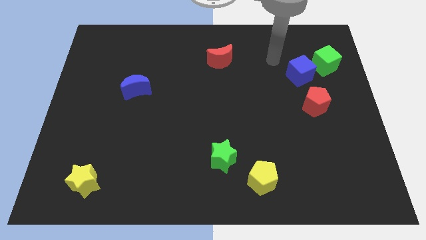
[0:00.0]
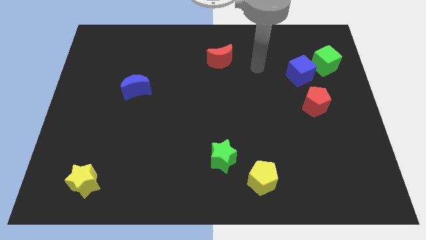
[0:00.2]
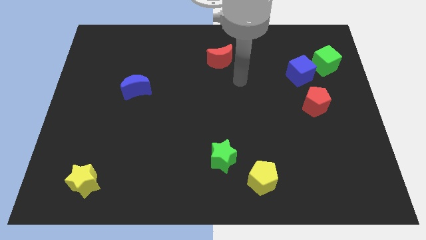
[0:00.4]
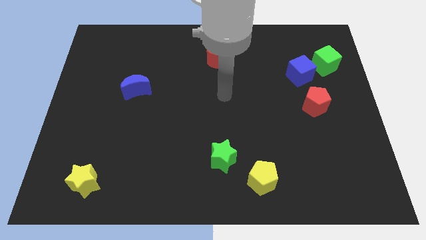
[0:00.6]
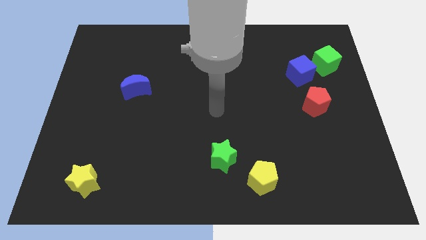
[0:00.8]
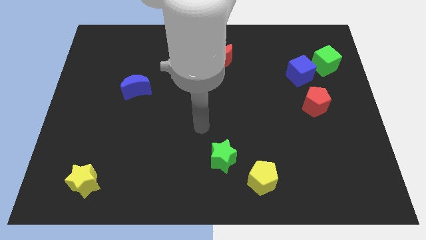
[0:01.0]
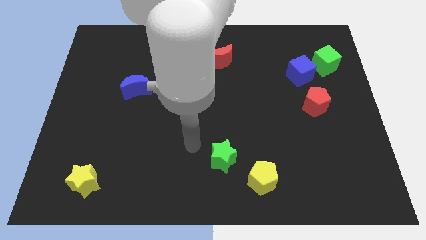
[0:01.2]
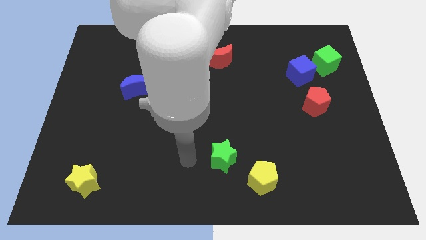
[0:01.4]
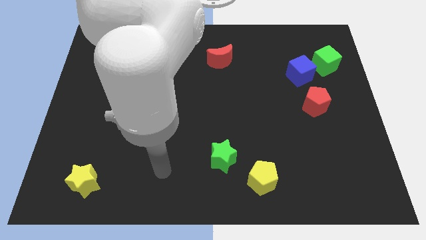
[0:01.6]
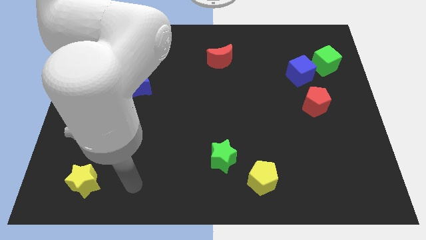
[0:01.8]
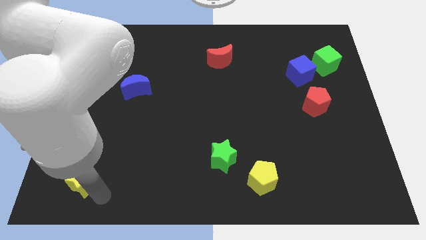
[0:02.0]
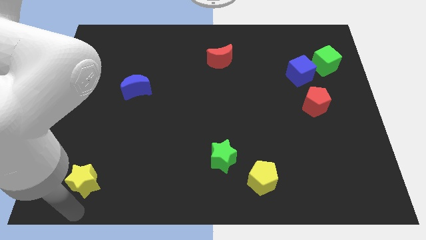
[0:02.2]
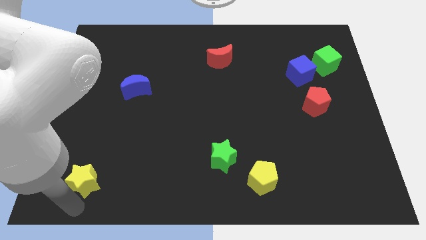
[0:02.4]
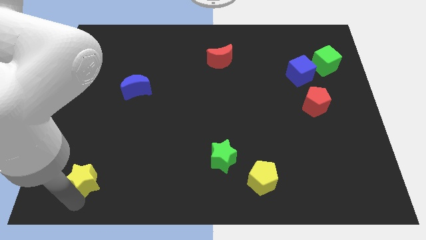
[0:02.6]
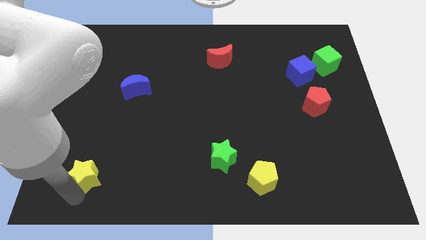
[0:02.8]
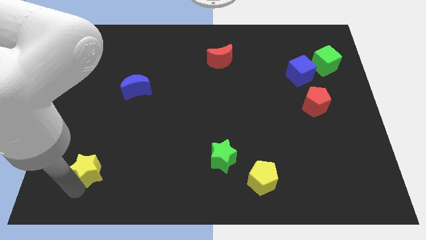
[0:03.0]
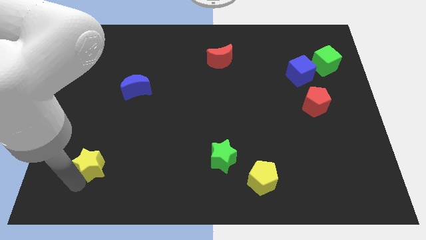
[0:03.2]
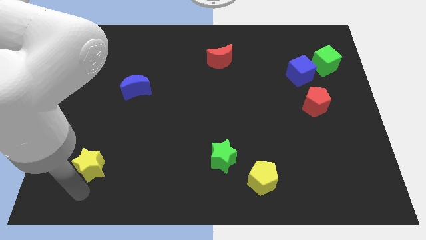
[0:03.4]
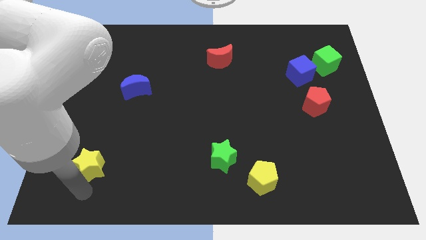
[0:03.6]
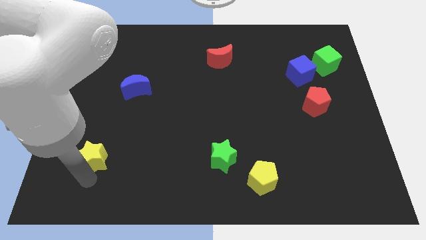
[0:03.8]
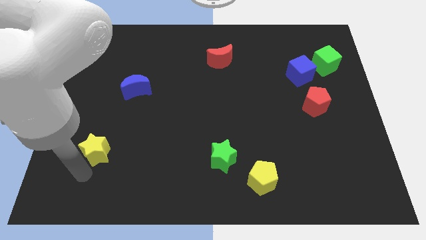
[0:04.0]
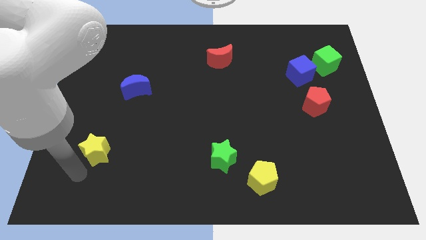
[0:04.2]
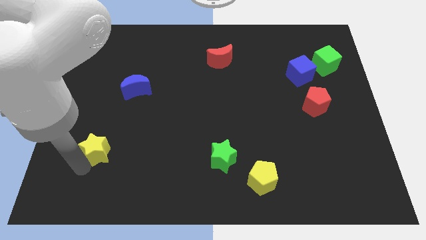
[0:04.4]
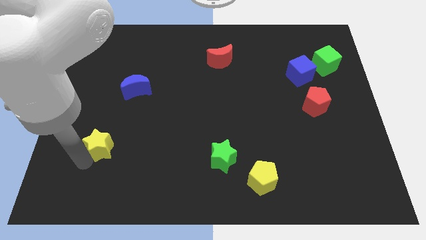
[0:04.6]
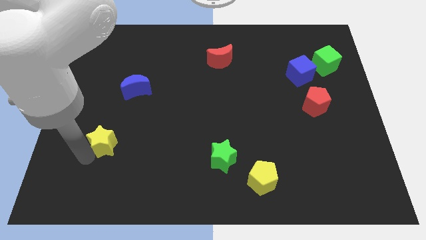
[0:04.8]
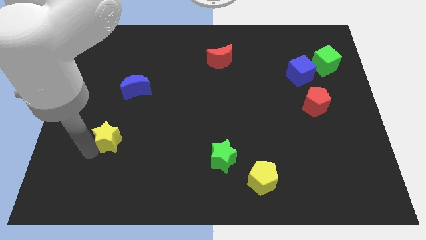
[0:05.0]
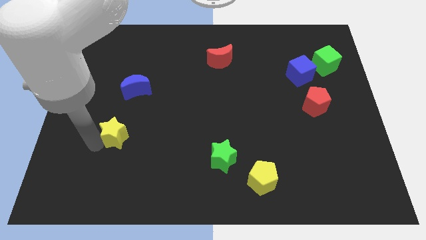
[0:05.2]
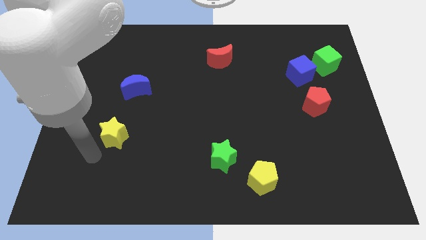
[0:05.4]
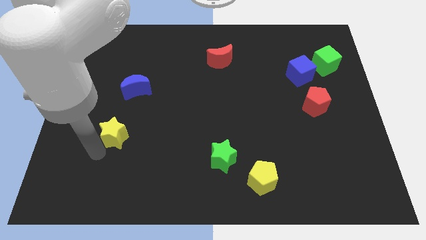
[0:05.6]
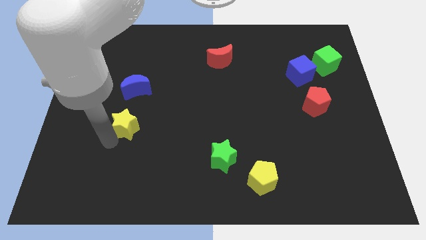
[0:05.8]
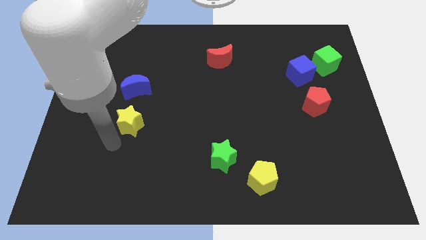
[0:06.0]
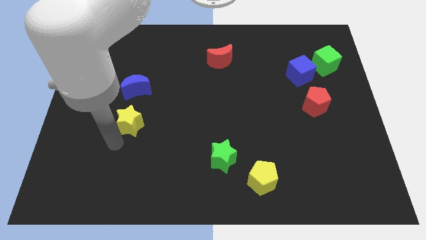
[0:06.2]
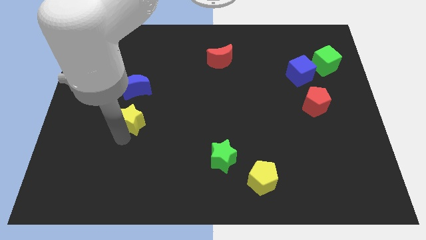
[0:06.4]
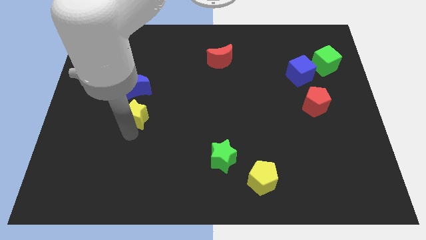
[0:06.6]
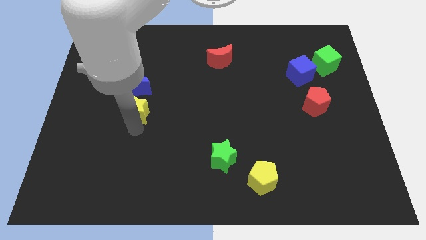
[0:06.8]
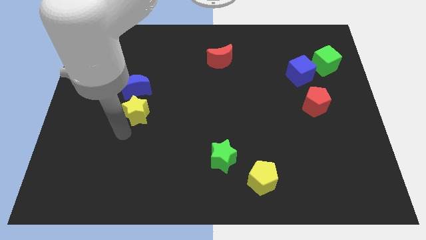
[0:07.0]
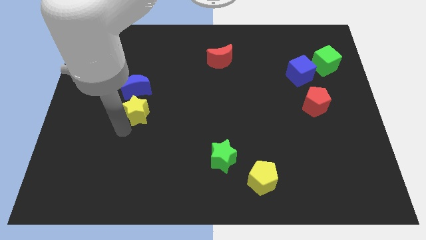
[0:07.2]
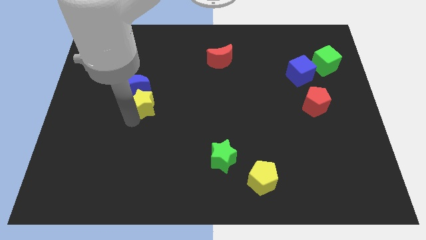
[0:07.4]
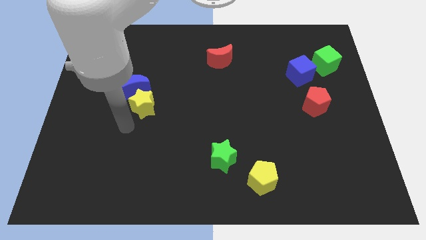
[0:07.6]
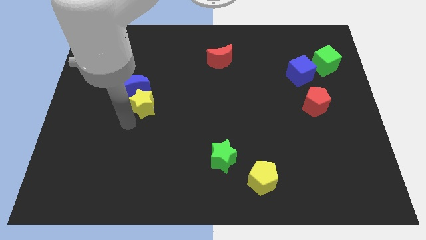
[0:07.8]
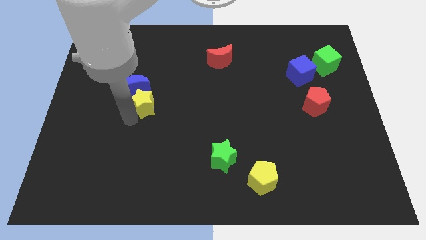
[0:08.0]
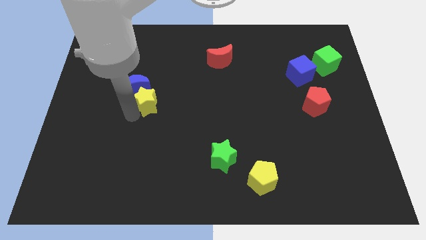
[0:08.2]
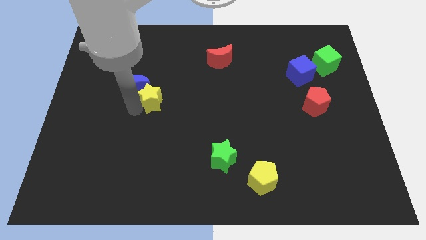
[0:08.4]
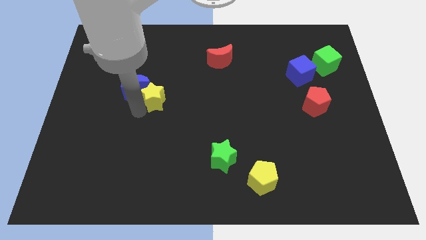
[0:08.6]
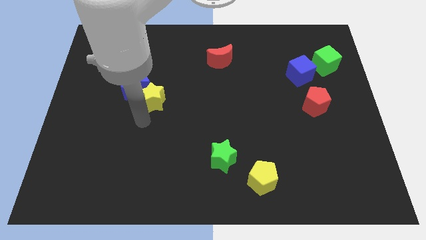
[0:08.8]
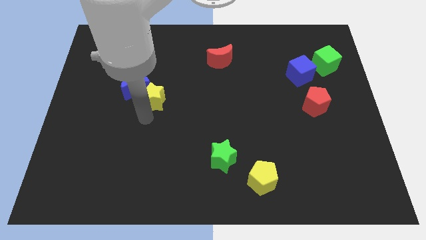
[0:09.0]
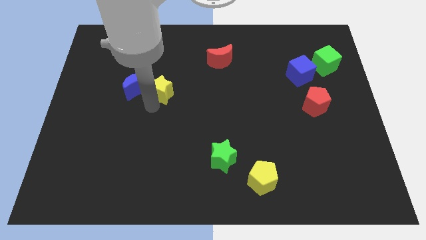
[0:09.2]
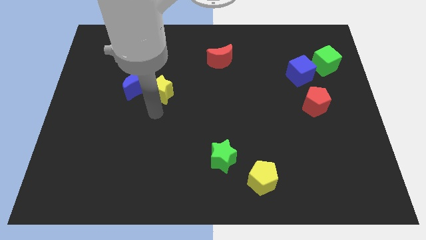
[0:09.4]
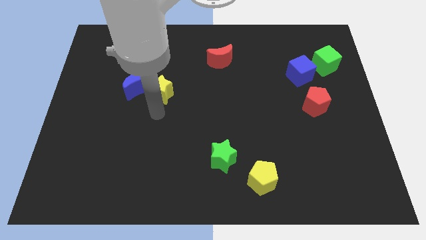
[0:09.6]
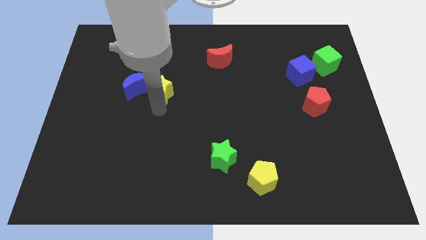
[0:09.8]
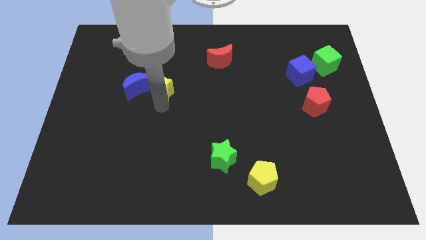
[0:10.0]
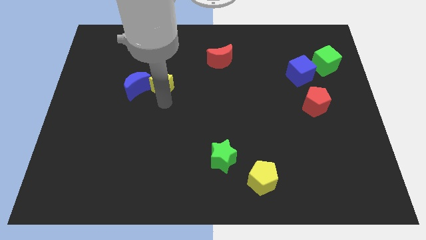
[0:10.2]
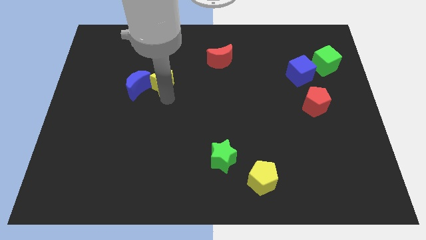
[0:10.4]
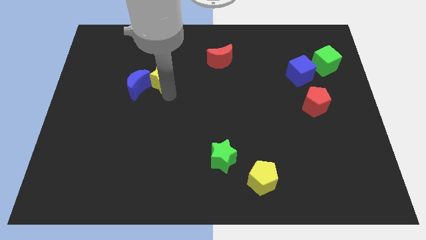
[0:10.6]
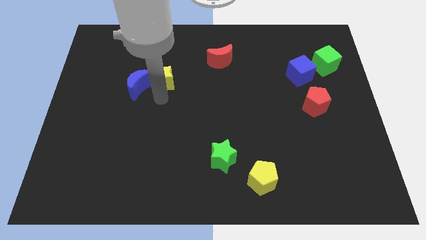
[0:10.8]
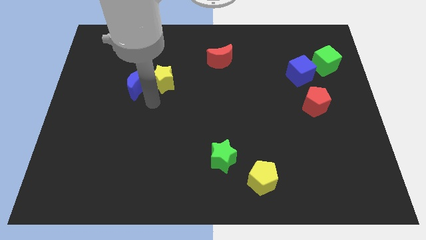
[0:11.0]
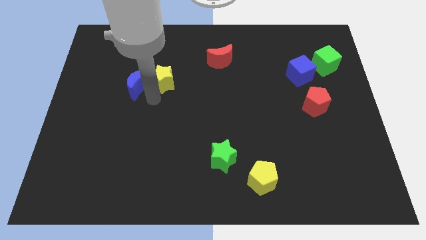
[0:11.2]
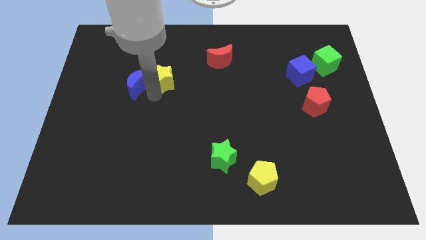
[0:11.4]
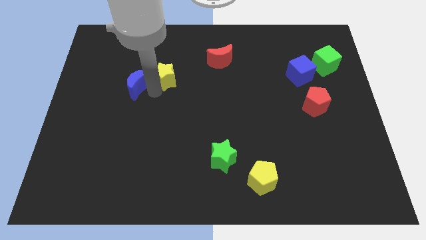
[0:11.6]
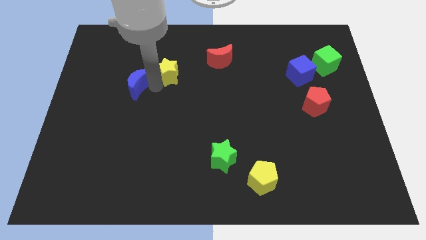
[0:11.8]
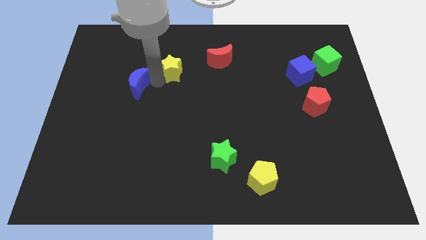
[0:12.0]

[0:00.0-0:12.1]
push the yellow star just left of the red moon

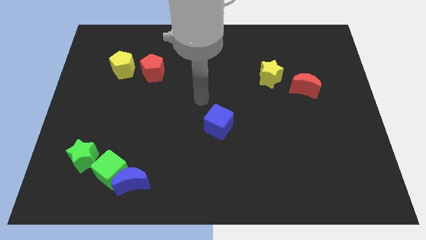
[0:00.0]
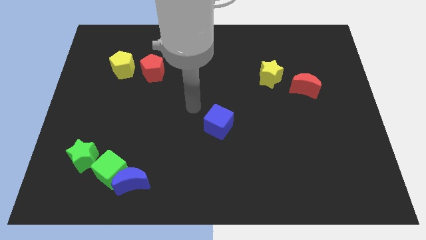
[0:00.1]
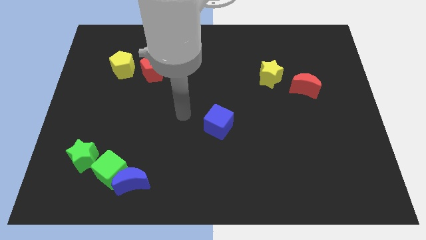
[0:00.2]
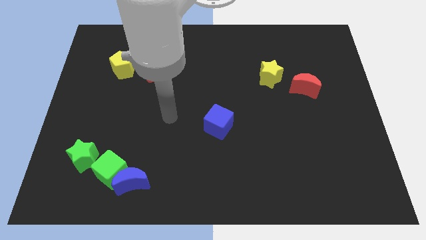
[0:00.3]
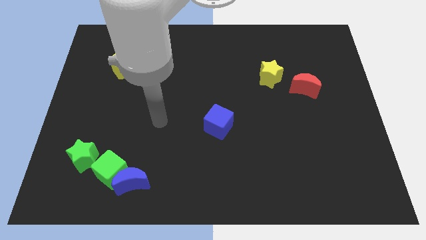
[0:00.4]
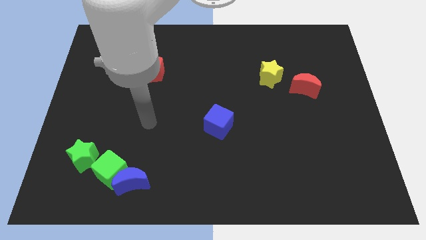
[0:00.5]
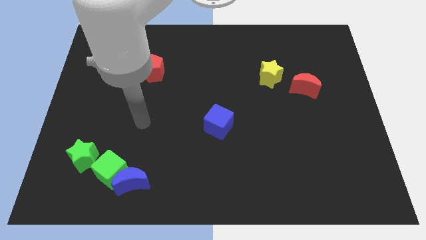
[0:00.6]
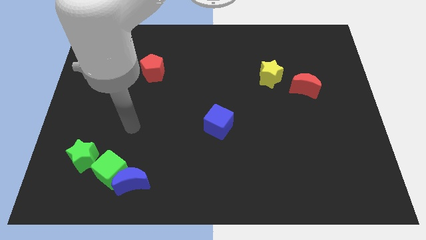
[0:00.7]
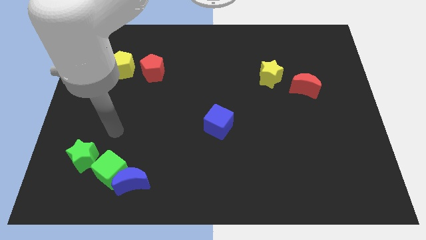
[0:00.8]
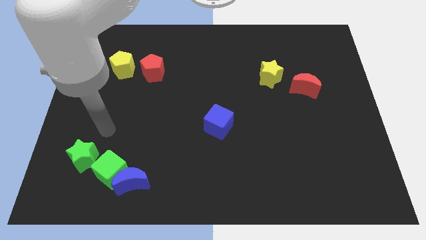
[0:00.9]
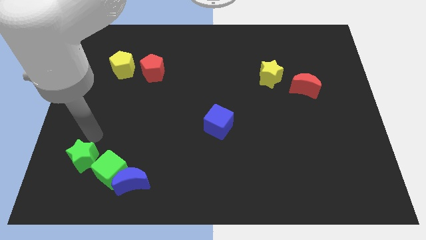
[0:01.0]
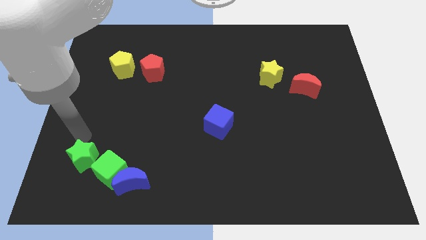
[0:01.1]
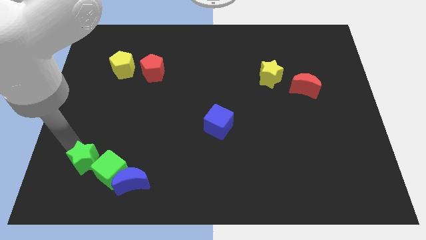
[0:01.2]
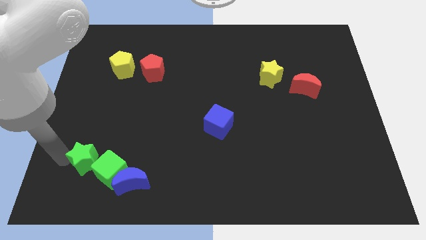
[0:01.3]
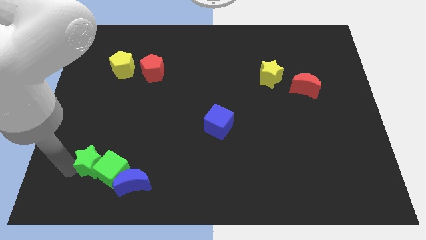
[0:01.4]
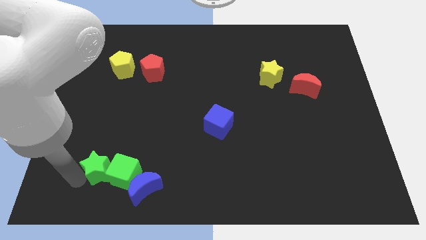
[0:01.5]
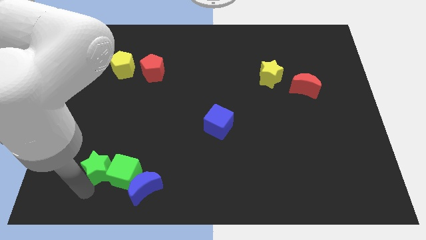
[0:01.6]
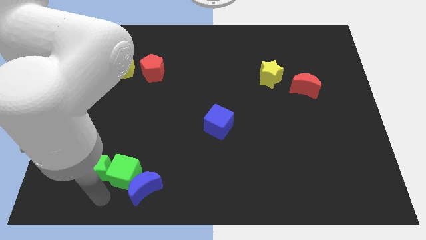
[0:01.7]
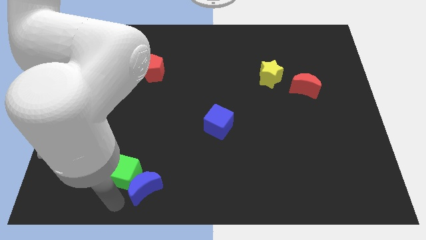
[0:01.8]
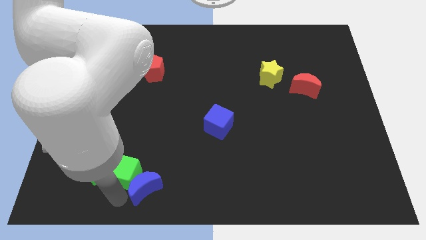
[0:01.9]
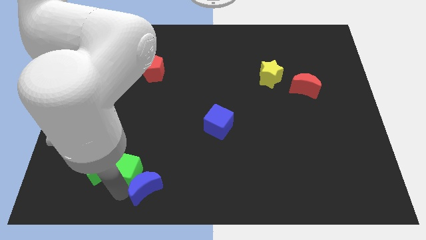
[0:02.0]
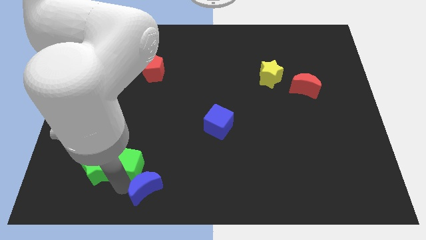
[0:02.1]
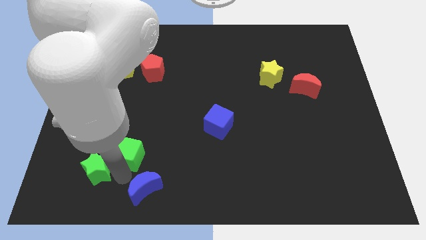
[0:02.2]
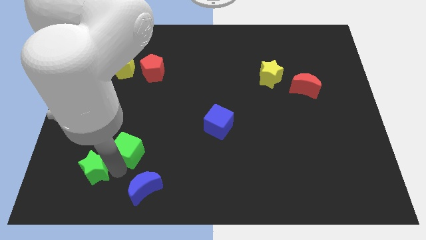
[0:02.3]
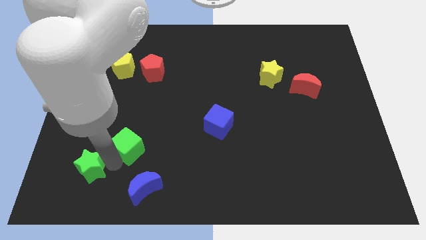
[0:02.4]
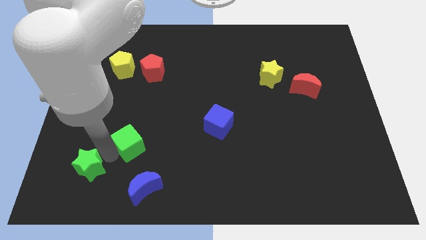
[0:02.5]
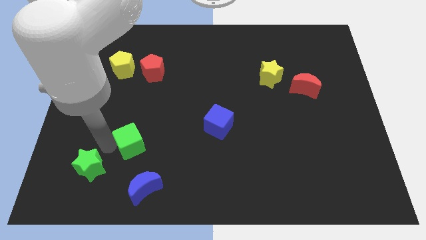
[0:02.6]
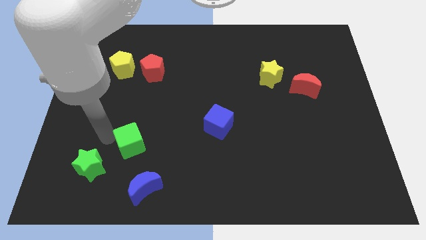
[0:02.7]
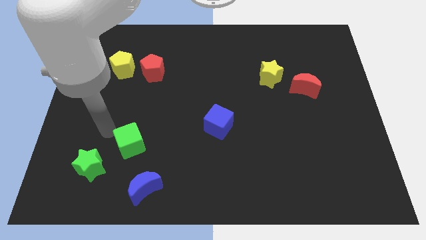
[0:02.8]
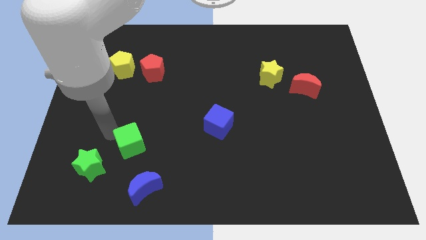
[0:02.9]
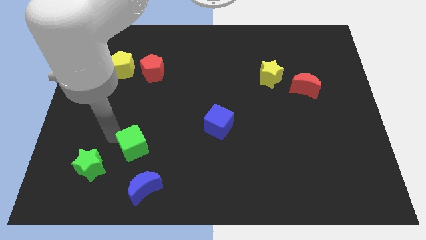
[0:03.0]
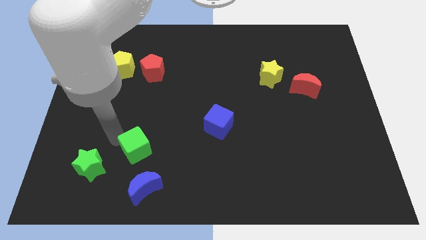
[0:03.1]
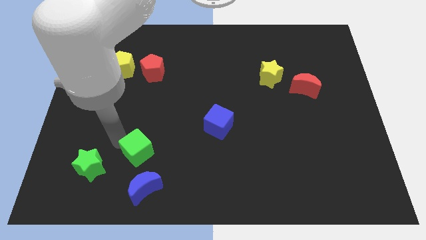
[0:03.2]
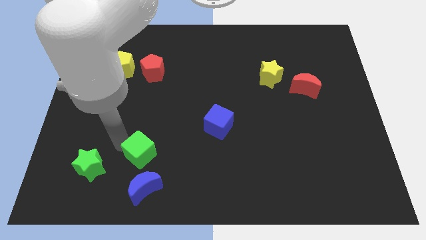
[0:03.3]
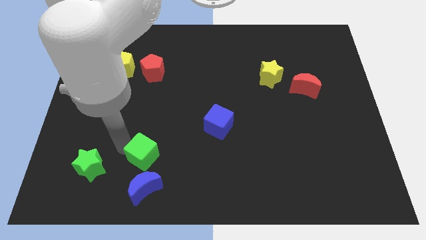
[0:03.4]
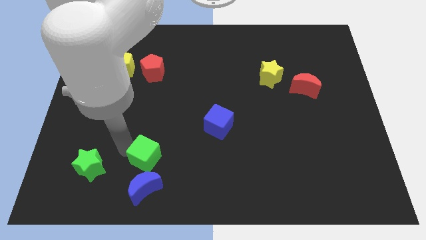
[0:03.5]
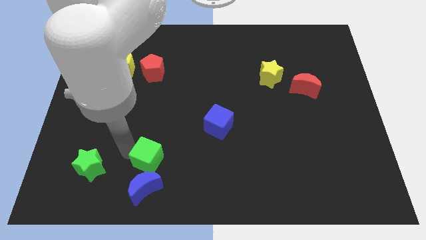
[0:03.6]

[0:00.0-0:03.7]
push the green cube diagonally up and to the right of the blue moon
